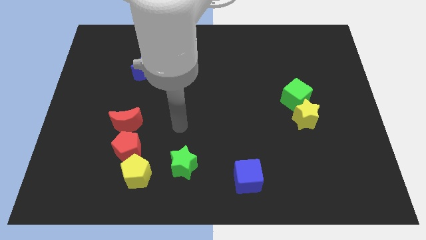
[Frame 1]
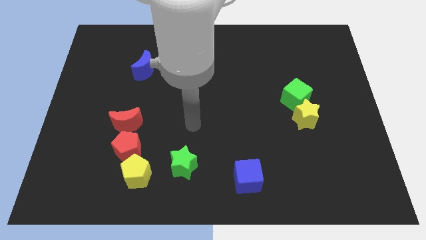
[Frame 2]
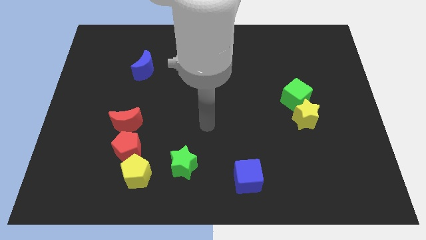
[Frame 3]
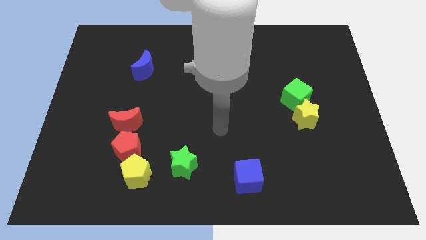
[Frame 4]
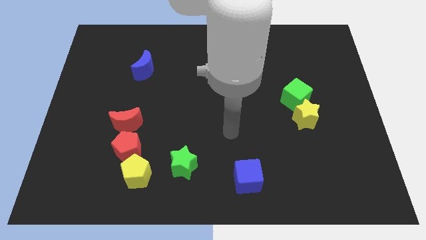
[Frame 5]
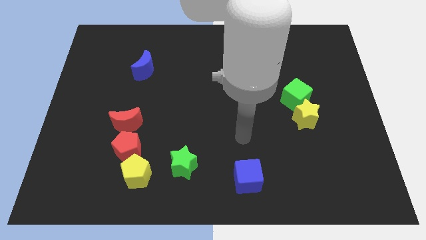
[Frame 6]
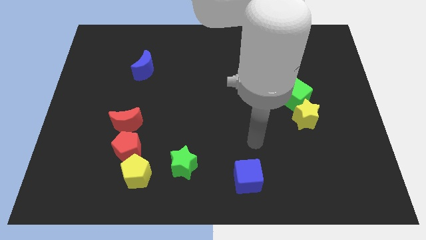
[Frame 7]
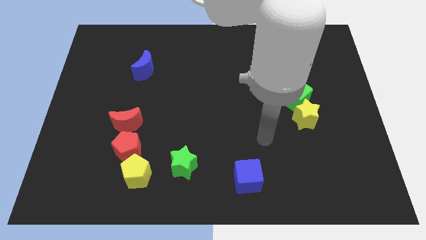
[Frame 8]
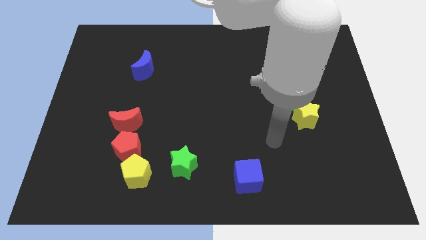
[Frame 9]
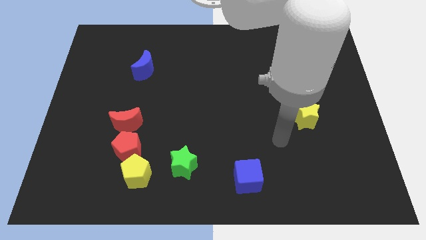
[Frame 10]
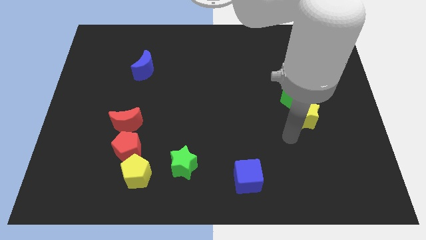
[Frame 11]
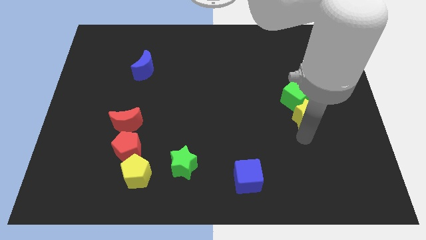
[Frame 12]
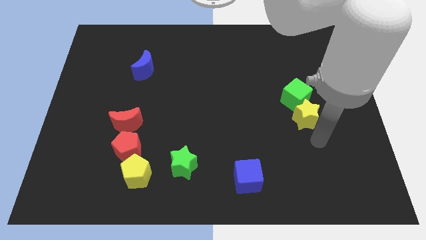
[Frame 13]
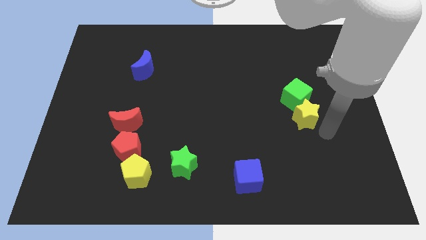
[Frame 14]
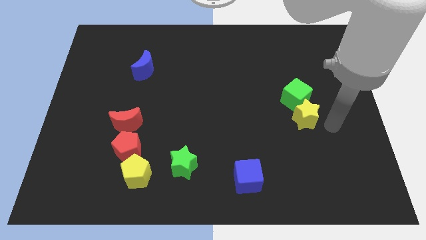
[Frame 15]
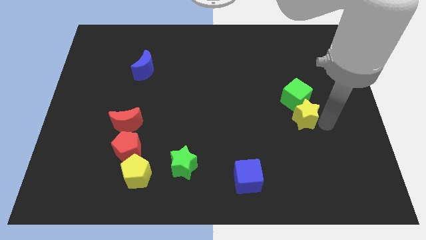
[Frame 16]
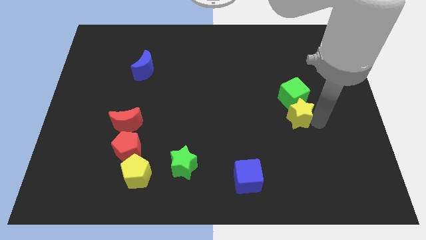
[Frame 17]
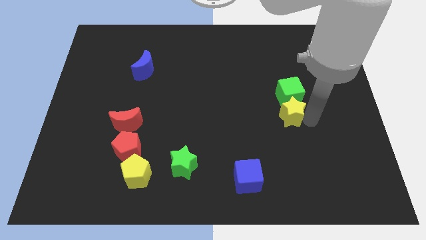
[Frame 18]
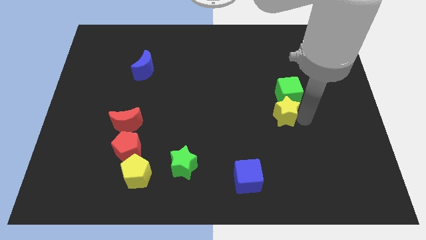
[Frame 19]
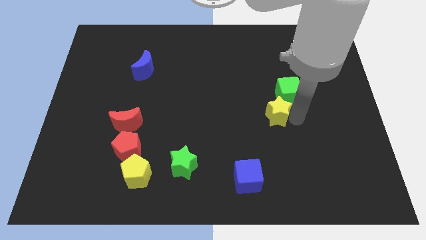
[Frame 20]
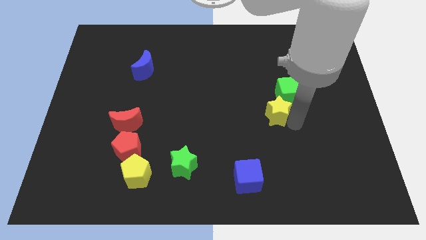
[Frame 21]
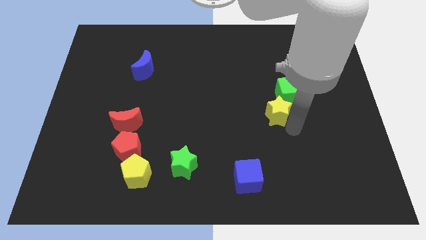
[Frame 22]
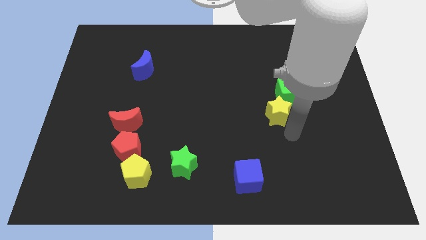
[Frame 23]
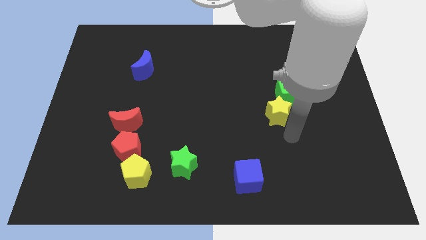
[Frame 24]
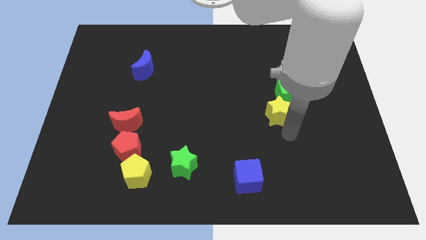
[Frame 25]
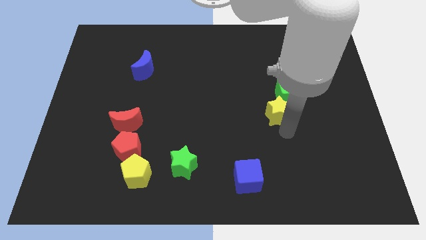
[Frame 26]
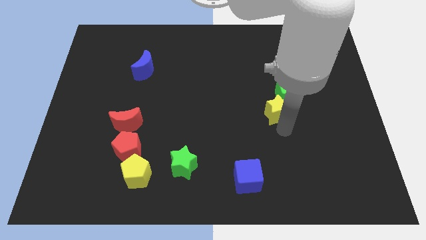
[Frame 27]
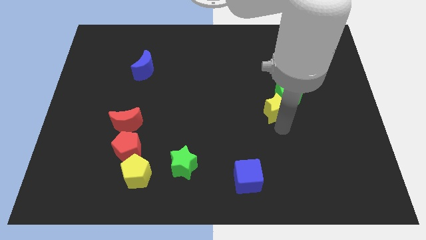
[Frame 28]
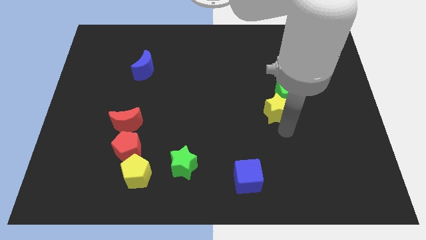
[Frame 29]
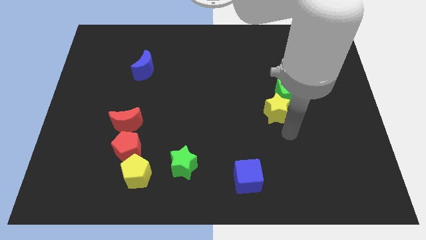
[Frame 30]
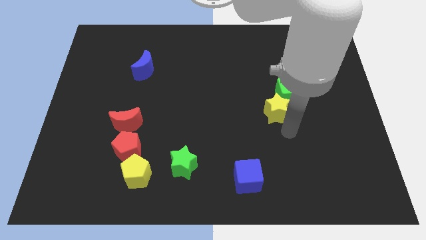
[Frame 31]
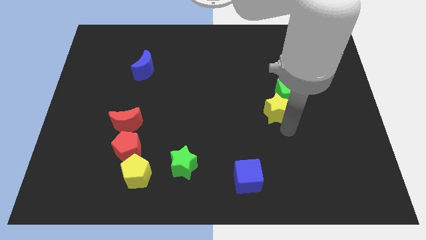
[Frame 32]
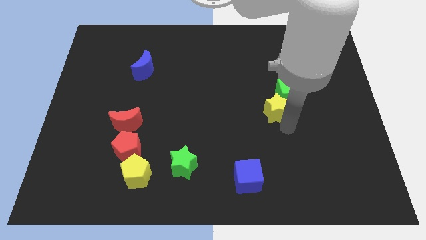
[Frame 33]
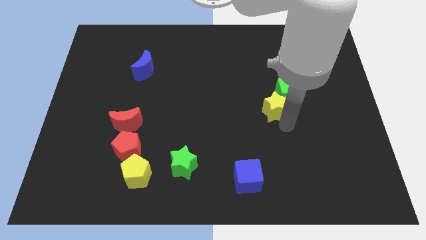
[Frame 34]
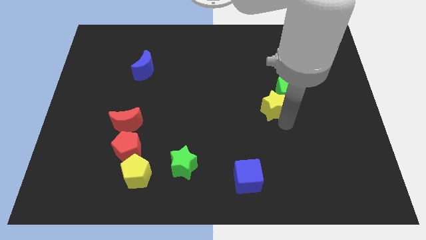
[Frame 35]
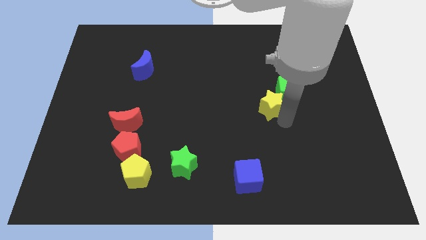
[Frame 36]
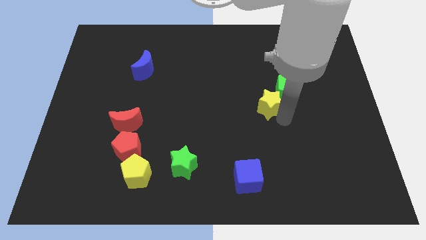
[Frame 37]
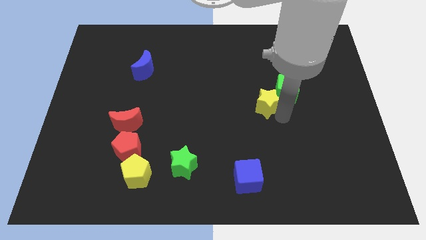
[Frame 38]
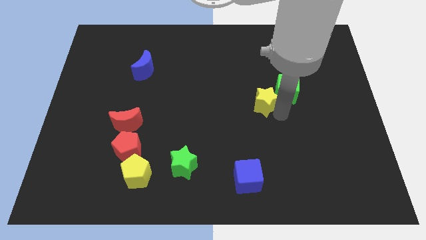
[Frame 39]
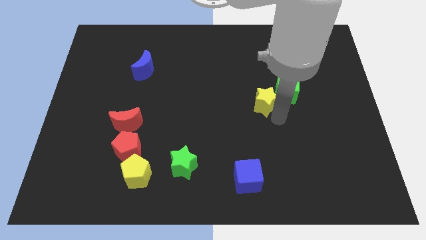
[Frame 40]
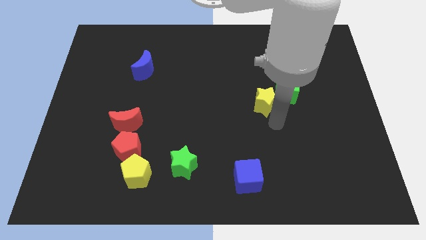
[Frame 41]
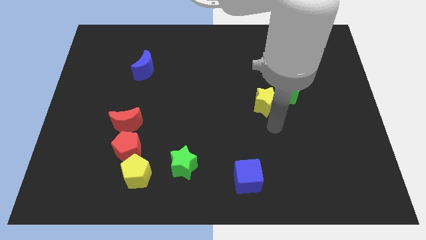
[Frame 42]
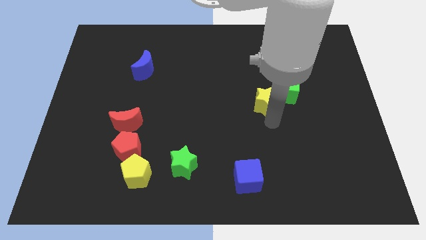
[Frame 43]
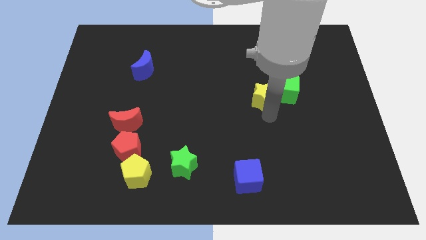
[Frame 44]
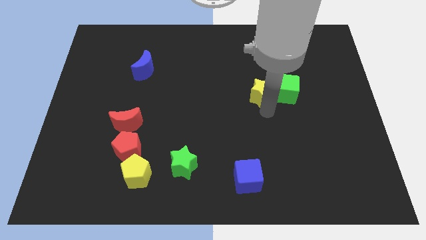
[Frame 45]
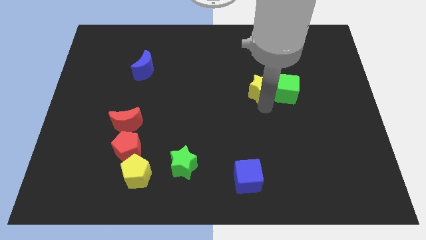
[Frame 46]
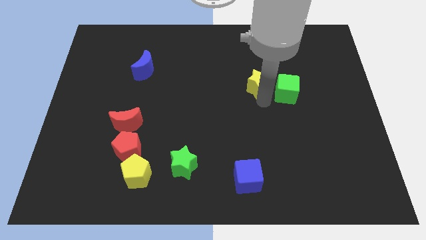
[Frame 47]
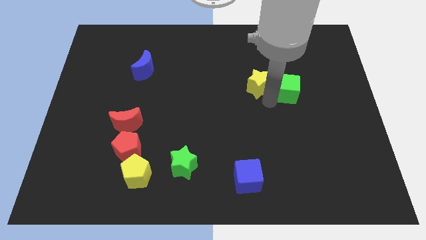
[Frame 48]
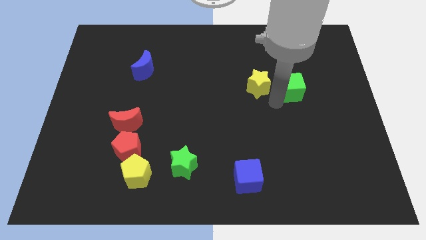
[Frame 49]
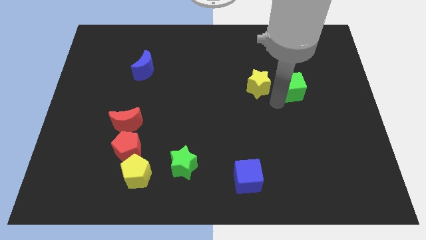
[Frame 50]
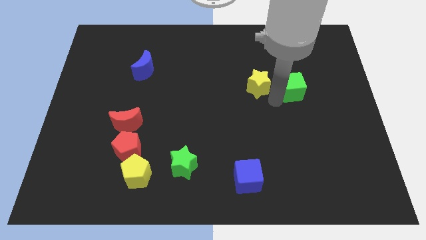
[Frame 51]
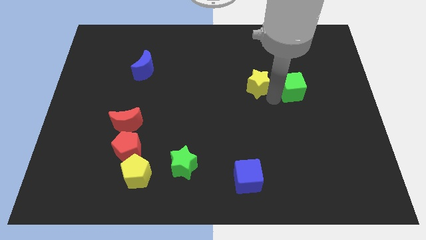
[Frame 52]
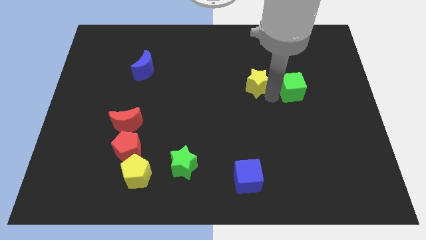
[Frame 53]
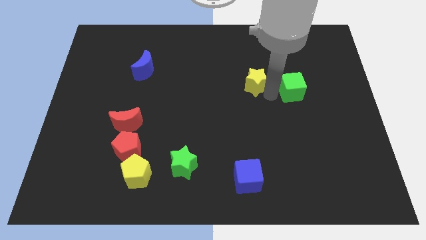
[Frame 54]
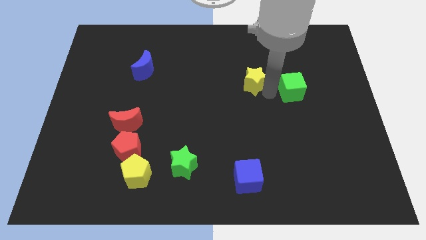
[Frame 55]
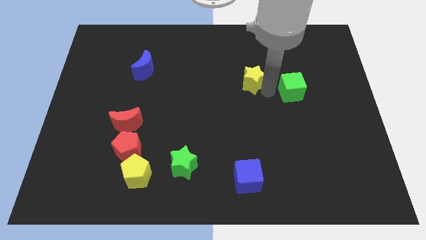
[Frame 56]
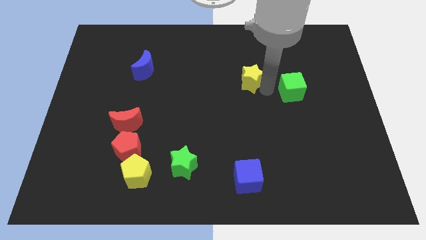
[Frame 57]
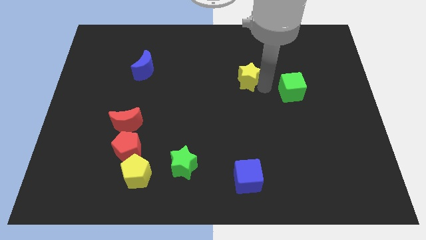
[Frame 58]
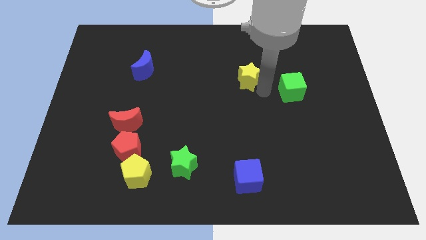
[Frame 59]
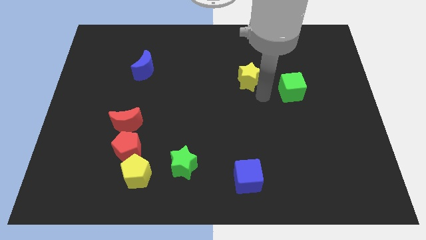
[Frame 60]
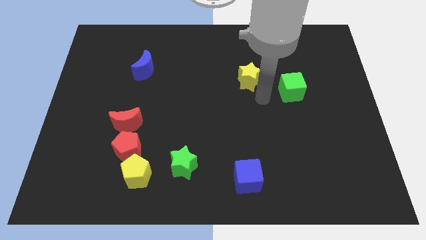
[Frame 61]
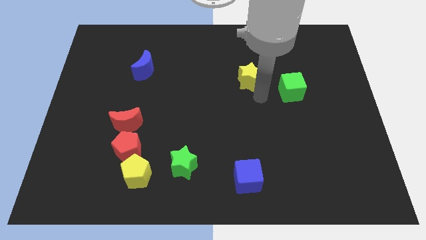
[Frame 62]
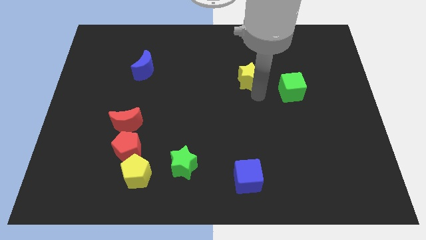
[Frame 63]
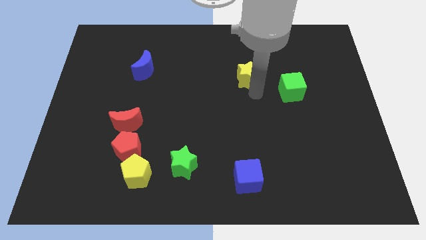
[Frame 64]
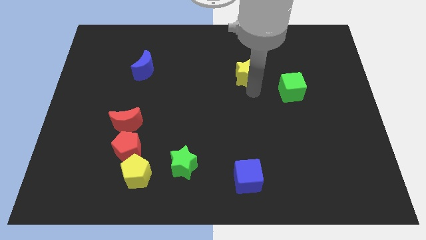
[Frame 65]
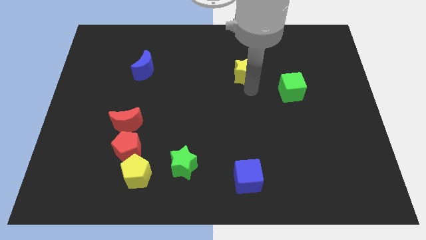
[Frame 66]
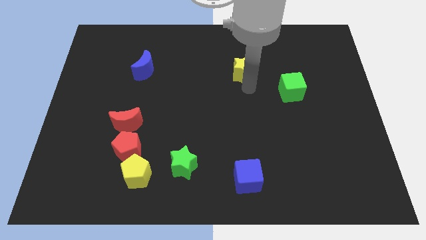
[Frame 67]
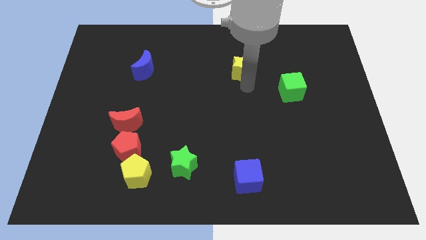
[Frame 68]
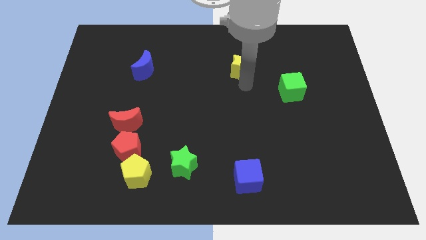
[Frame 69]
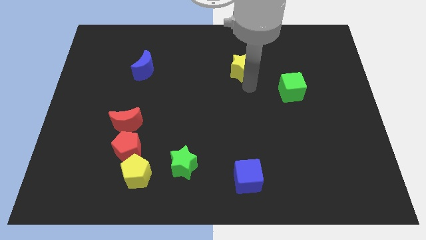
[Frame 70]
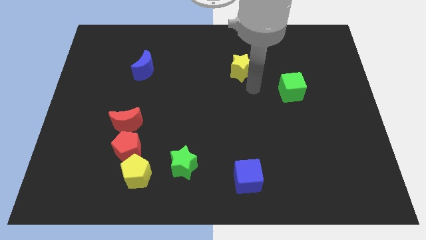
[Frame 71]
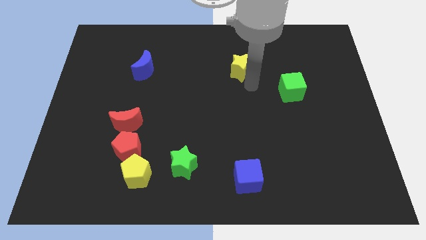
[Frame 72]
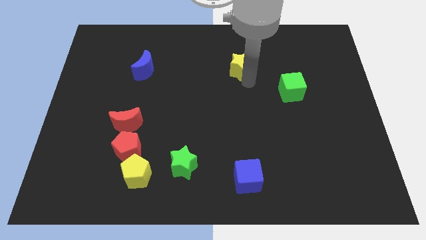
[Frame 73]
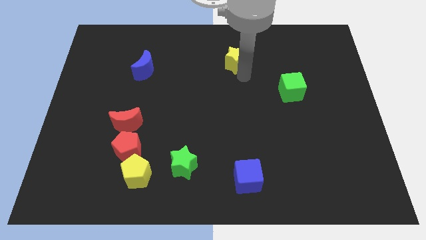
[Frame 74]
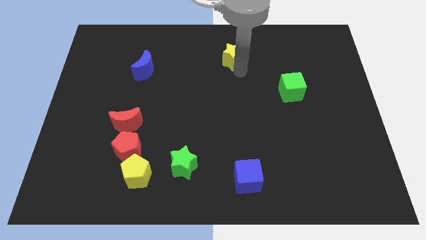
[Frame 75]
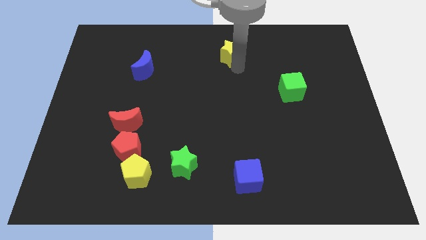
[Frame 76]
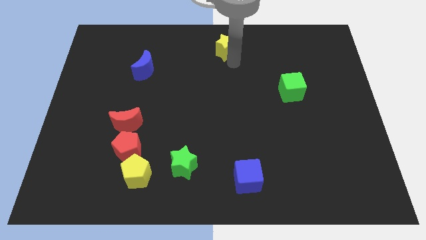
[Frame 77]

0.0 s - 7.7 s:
put the yellow star to the top side

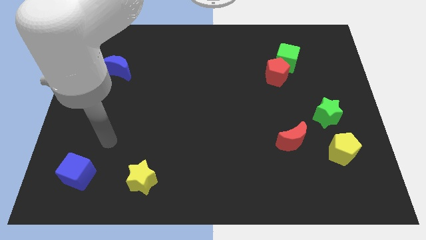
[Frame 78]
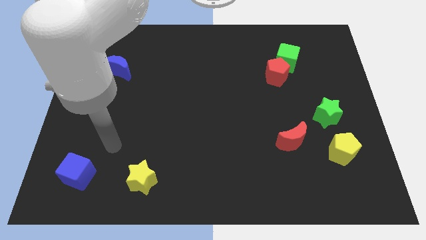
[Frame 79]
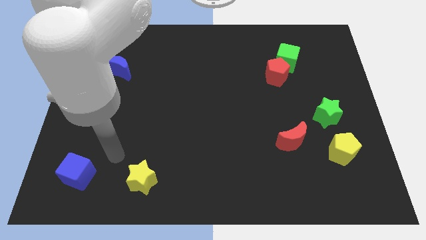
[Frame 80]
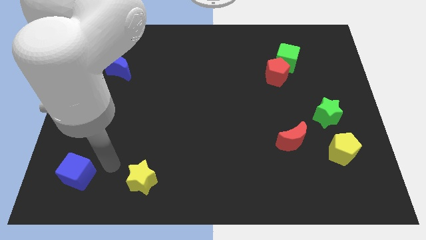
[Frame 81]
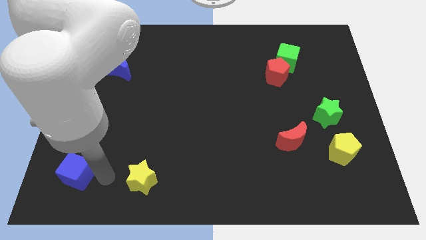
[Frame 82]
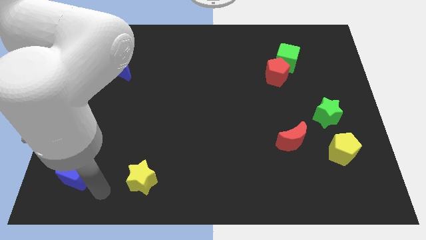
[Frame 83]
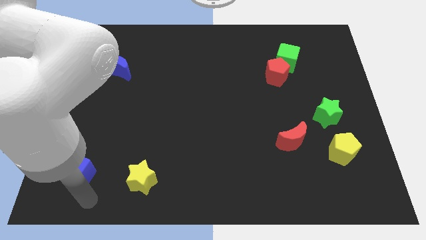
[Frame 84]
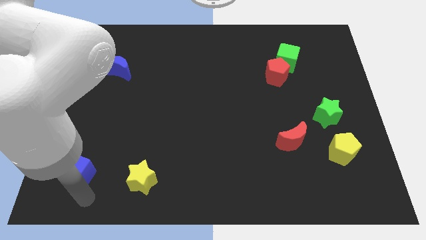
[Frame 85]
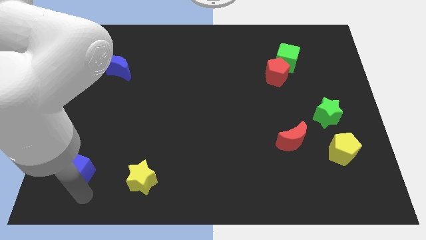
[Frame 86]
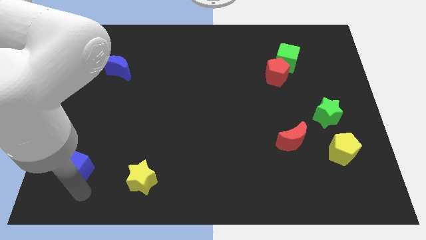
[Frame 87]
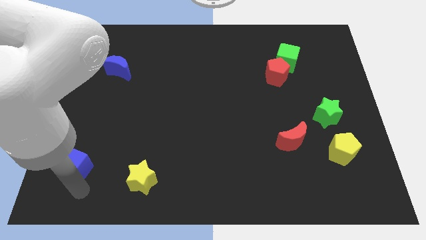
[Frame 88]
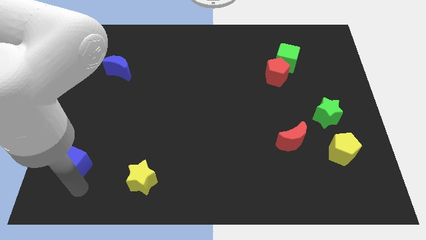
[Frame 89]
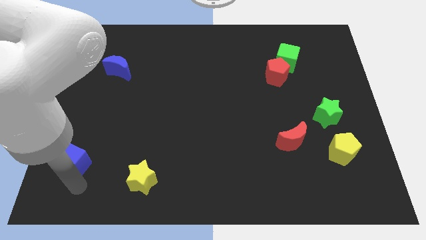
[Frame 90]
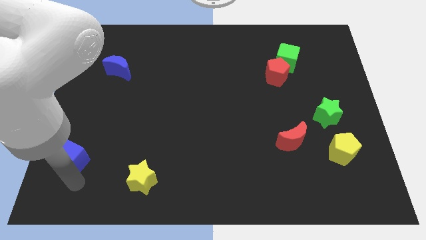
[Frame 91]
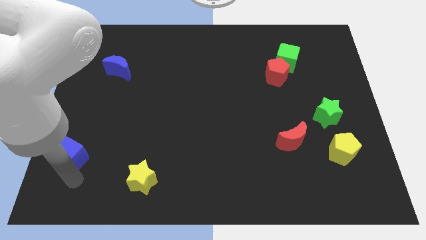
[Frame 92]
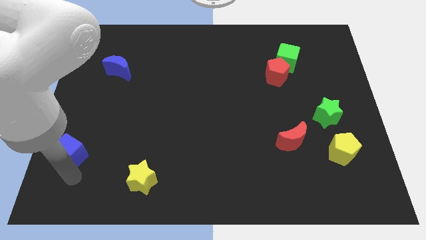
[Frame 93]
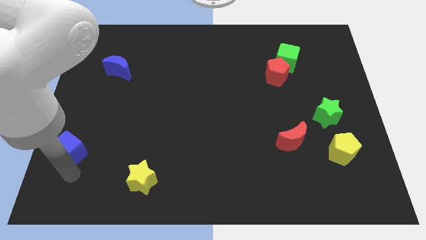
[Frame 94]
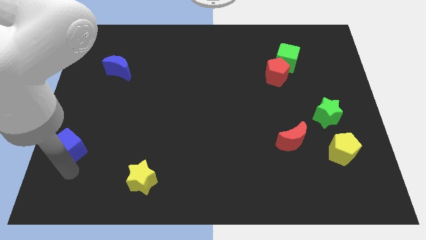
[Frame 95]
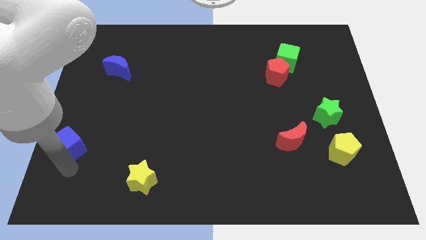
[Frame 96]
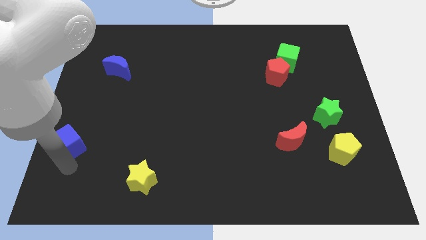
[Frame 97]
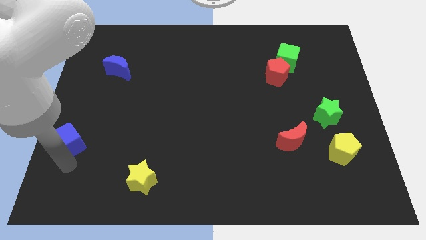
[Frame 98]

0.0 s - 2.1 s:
put the blue cube to the left side of the board
